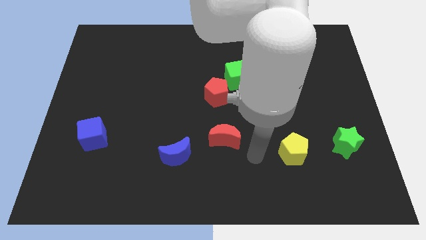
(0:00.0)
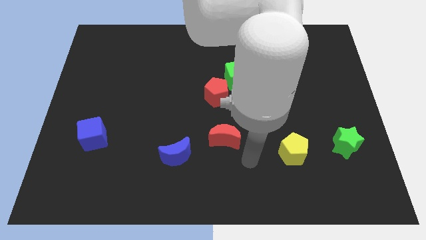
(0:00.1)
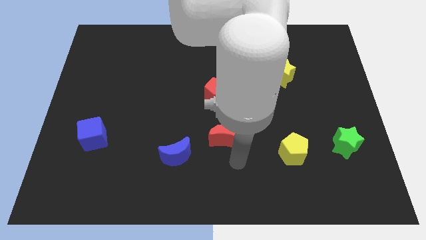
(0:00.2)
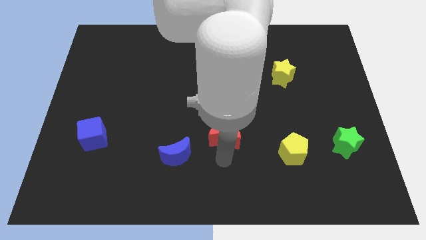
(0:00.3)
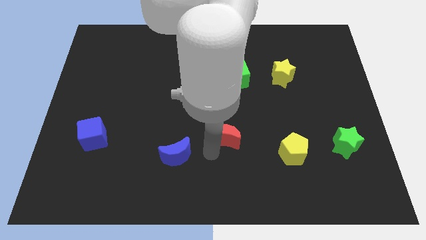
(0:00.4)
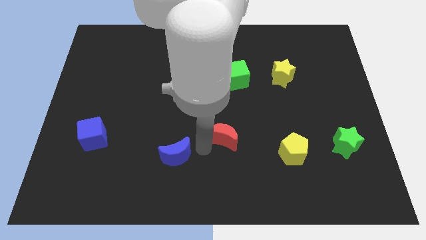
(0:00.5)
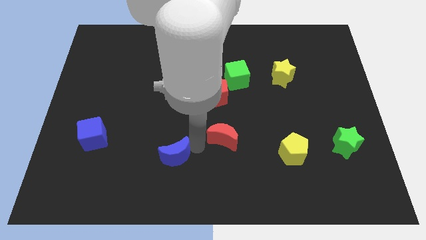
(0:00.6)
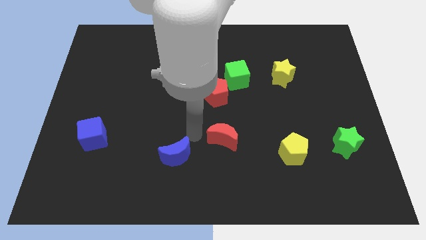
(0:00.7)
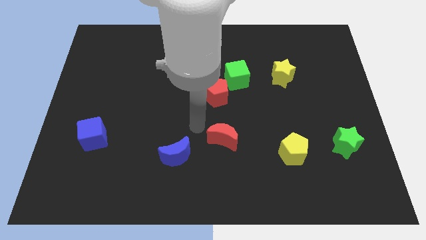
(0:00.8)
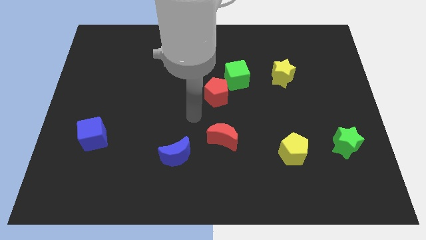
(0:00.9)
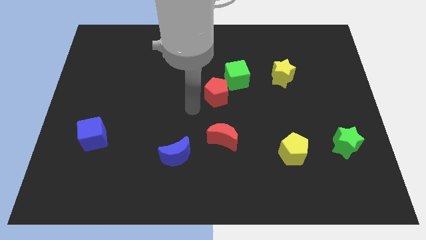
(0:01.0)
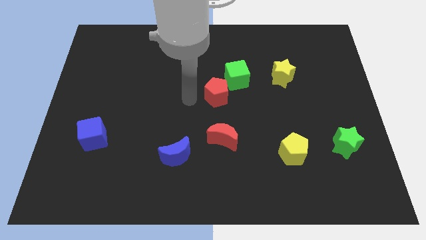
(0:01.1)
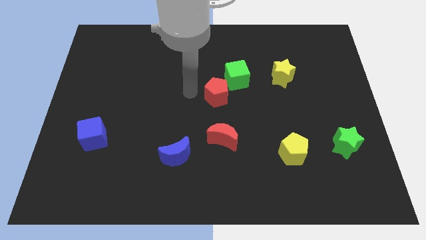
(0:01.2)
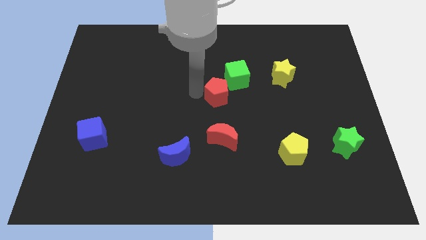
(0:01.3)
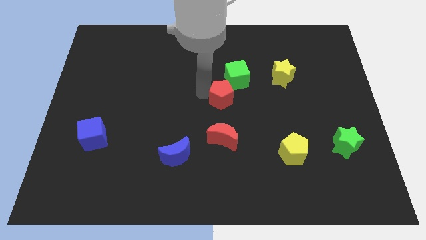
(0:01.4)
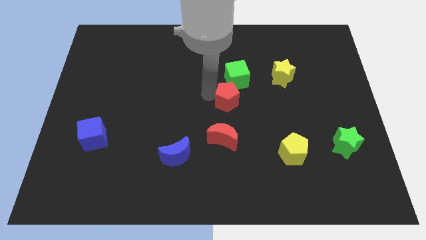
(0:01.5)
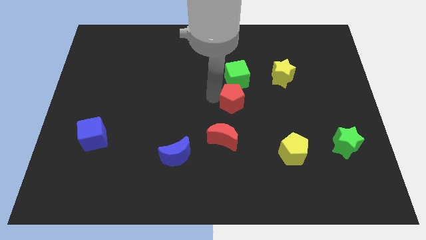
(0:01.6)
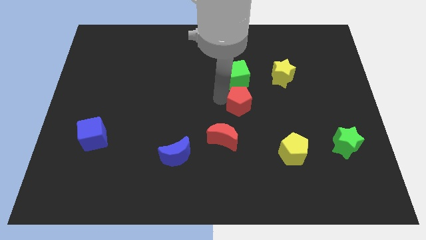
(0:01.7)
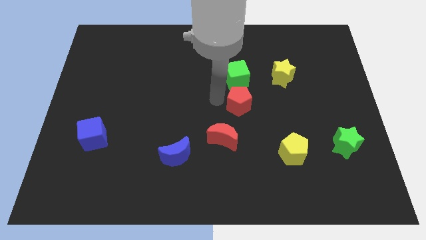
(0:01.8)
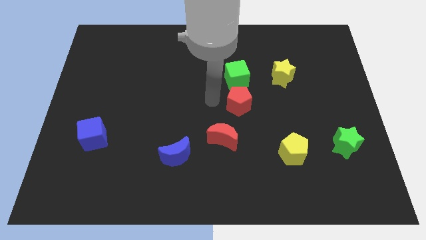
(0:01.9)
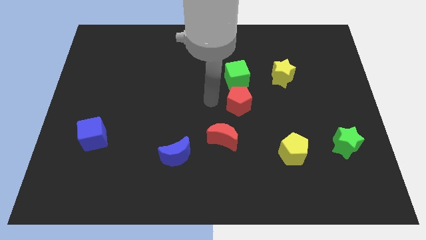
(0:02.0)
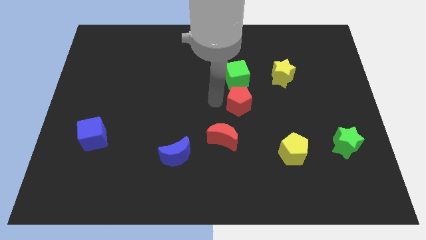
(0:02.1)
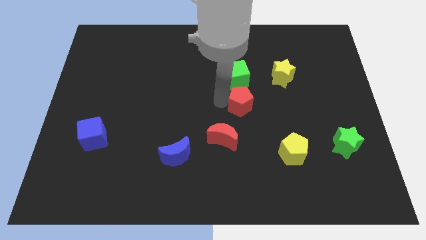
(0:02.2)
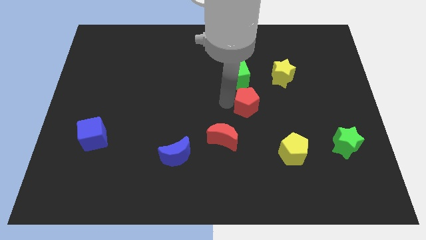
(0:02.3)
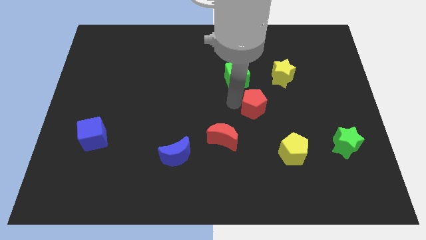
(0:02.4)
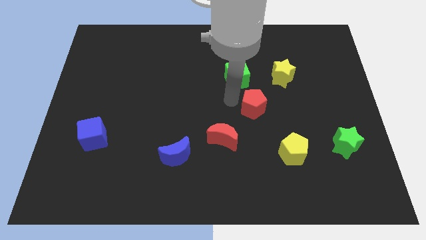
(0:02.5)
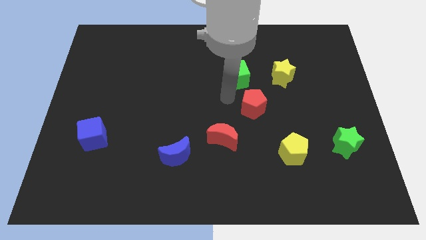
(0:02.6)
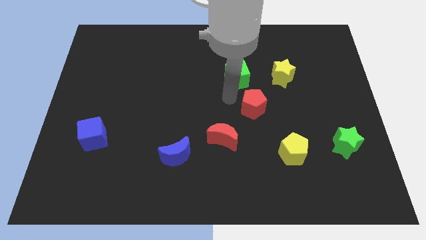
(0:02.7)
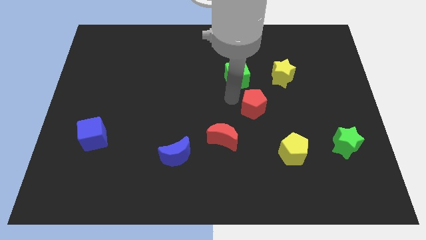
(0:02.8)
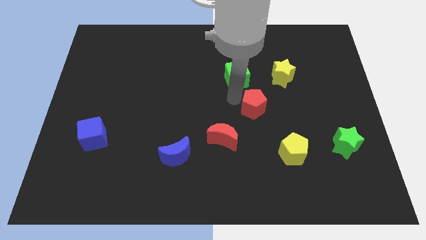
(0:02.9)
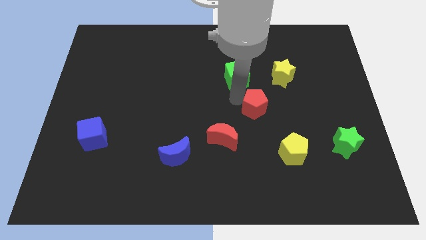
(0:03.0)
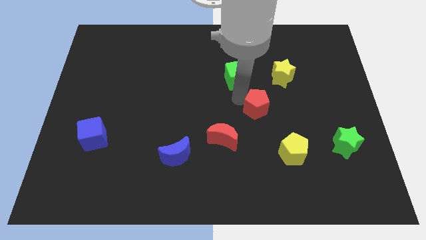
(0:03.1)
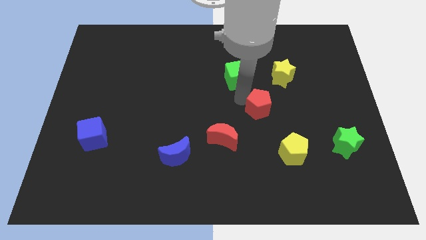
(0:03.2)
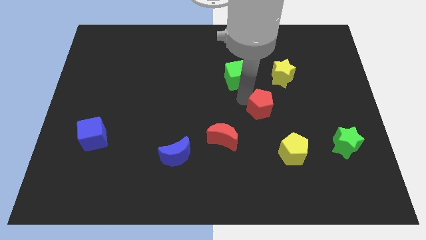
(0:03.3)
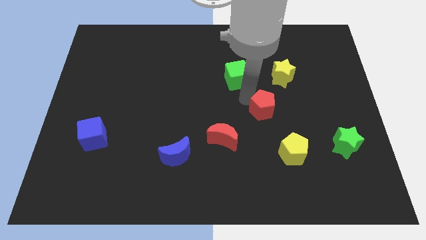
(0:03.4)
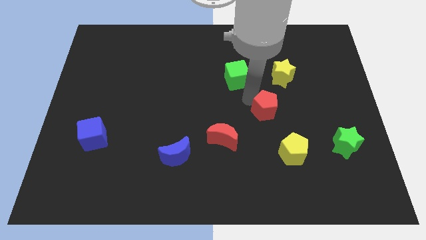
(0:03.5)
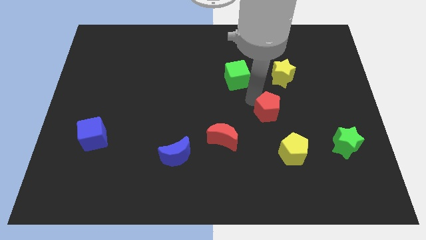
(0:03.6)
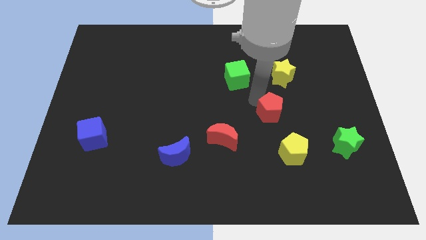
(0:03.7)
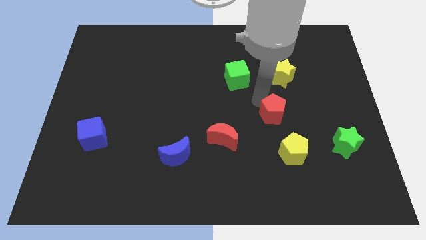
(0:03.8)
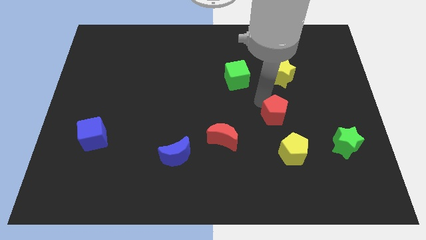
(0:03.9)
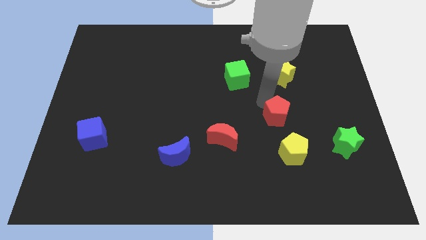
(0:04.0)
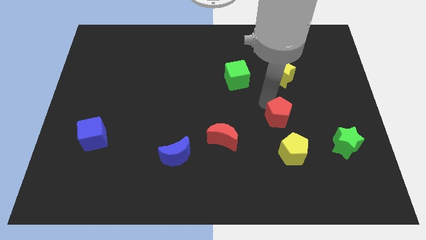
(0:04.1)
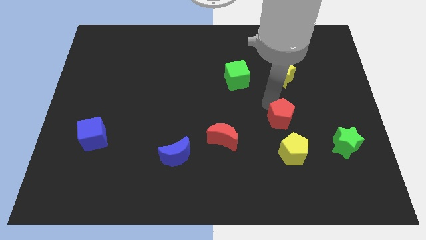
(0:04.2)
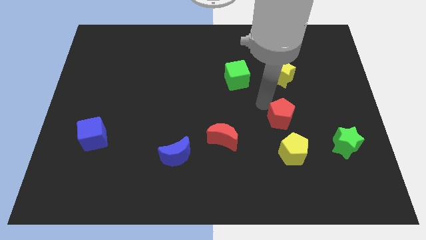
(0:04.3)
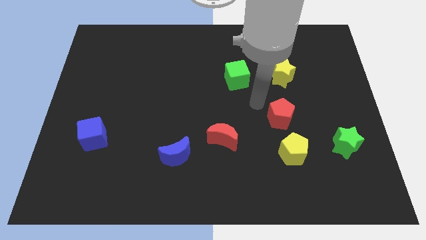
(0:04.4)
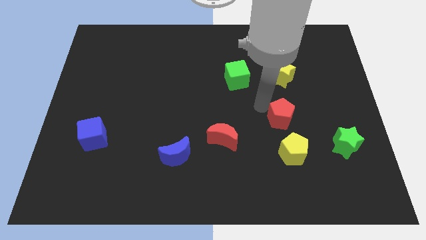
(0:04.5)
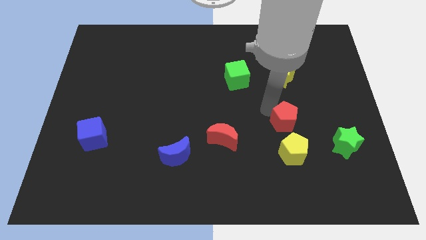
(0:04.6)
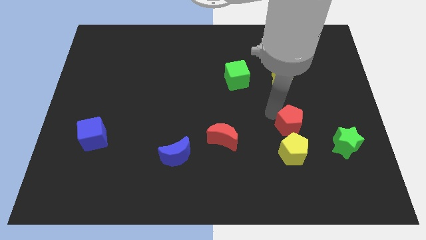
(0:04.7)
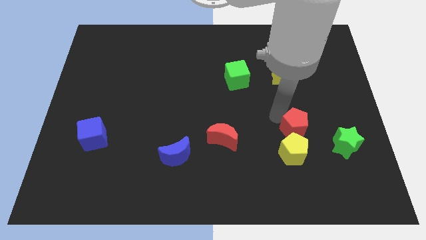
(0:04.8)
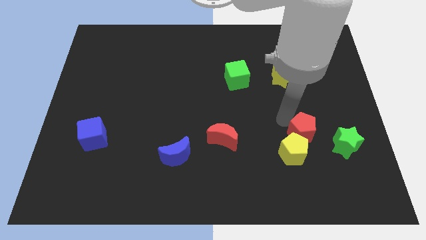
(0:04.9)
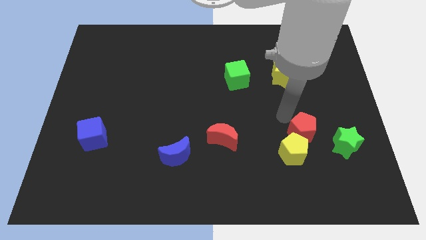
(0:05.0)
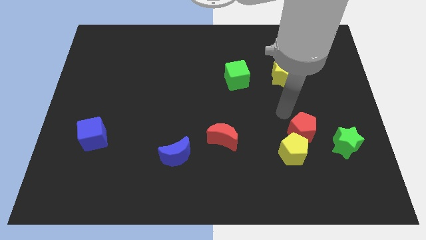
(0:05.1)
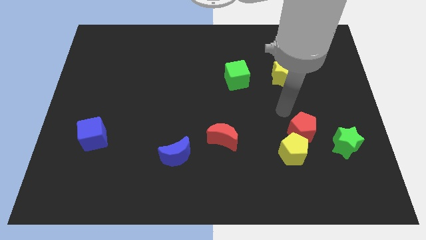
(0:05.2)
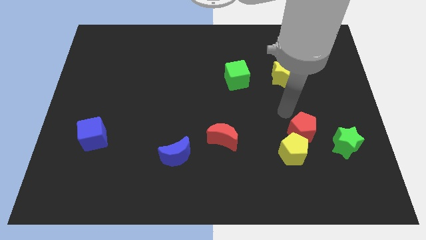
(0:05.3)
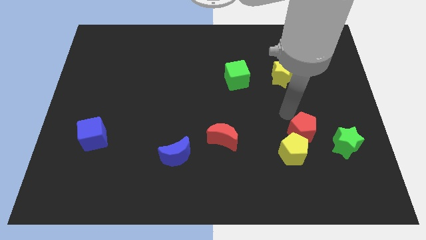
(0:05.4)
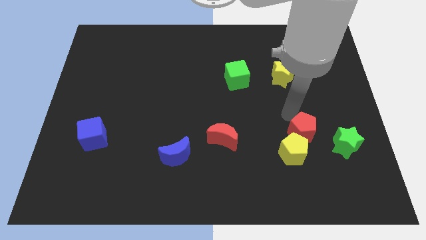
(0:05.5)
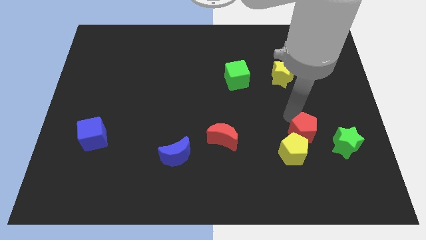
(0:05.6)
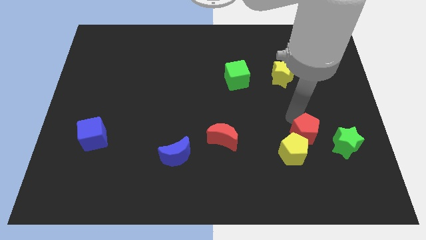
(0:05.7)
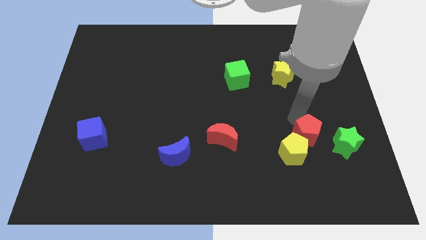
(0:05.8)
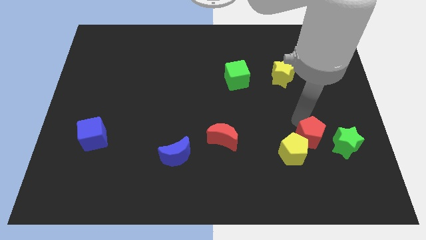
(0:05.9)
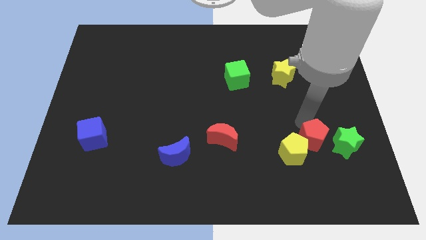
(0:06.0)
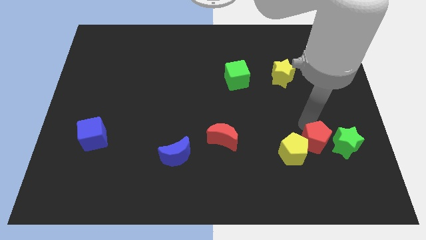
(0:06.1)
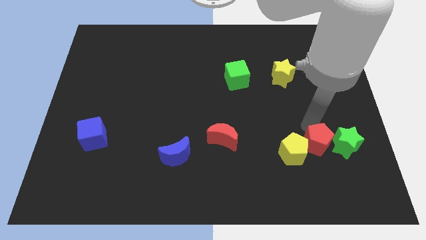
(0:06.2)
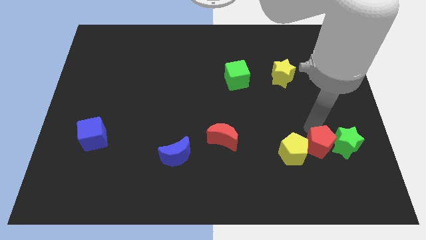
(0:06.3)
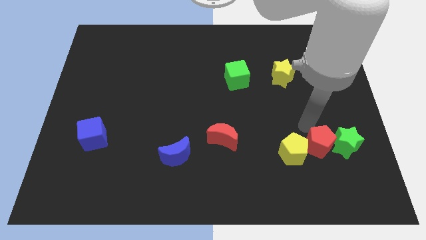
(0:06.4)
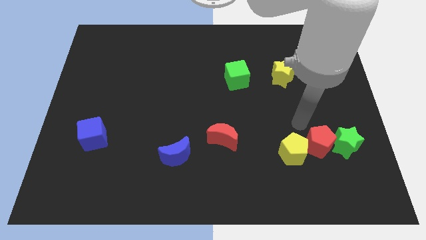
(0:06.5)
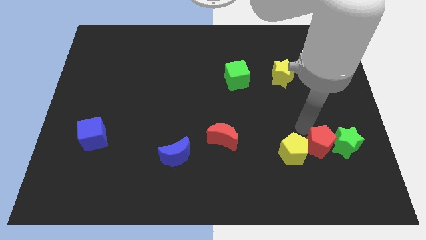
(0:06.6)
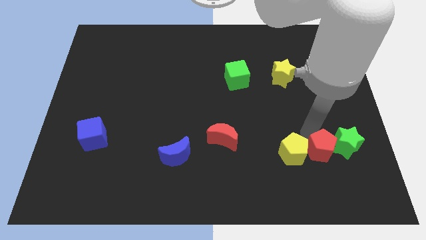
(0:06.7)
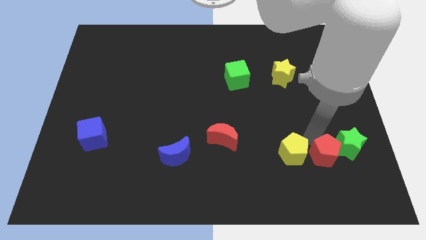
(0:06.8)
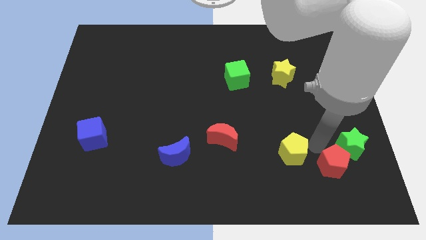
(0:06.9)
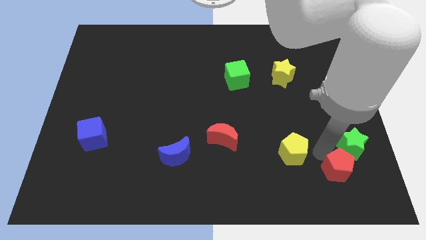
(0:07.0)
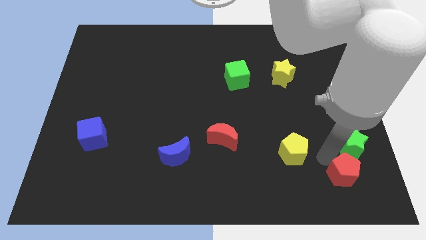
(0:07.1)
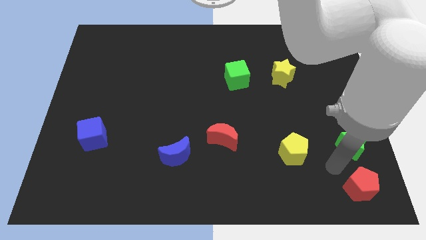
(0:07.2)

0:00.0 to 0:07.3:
push the red pentagon to the bottom right corner
